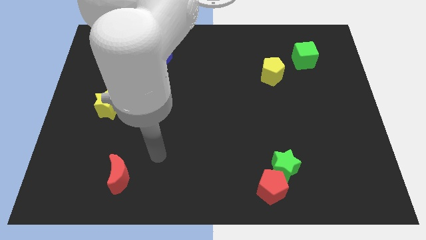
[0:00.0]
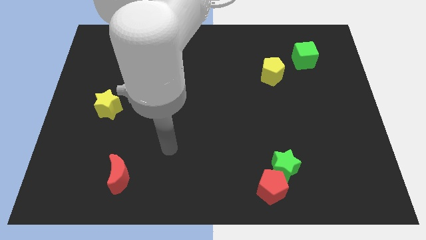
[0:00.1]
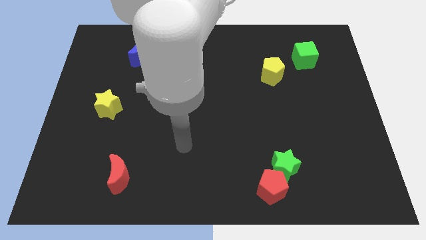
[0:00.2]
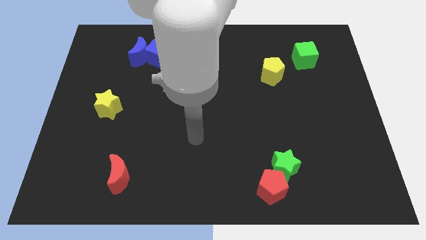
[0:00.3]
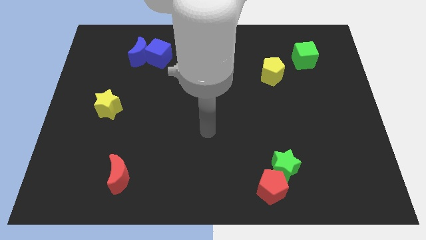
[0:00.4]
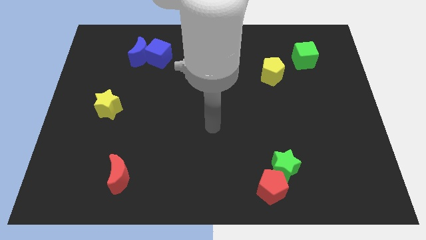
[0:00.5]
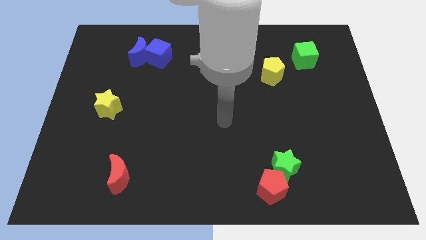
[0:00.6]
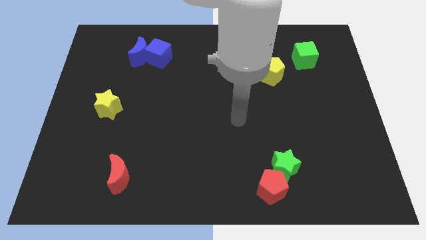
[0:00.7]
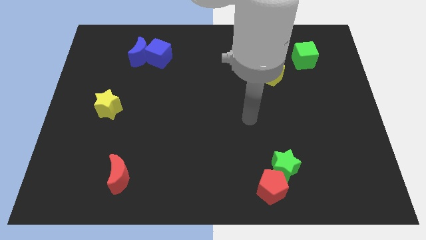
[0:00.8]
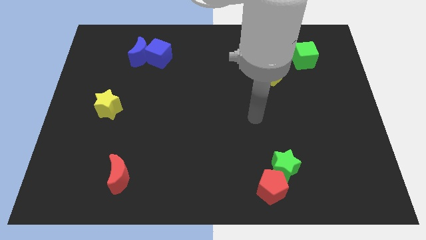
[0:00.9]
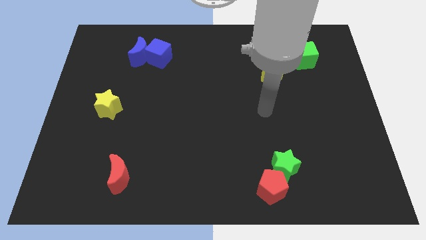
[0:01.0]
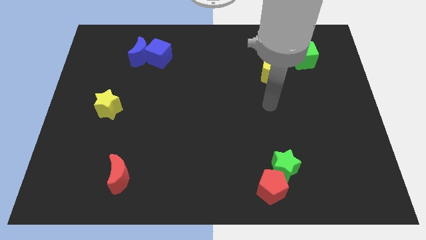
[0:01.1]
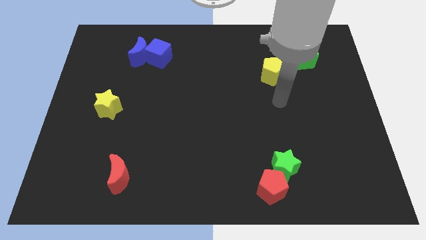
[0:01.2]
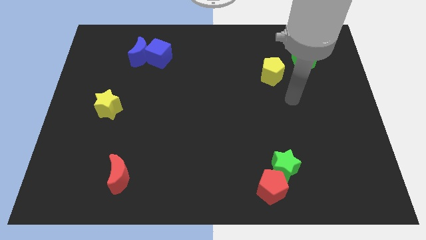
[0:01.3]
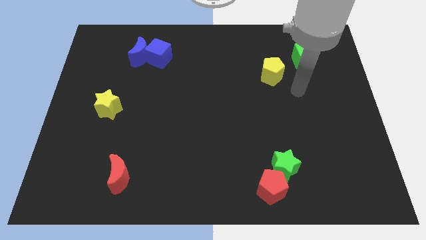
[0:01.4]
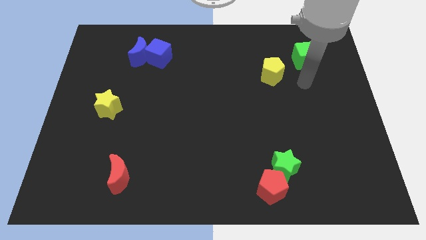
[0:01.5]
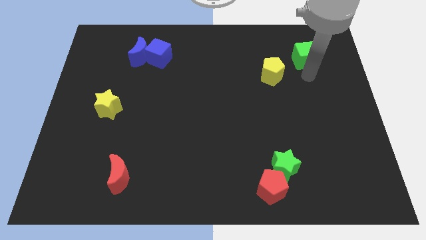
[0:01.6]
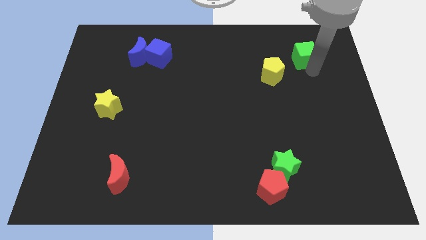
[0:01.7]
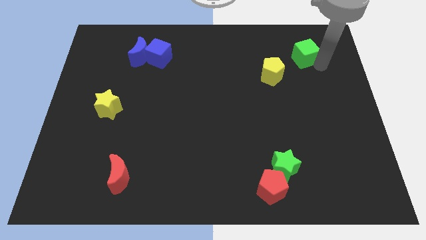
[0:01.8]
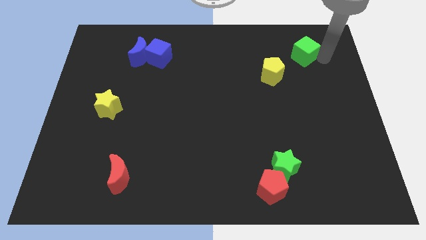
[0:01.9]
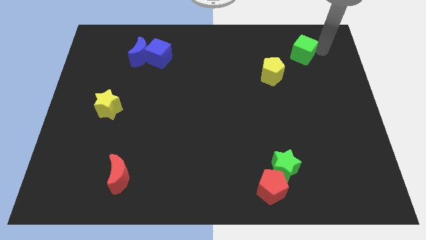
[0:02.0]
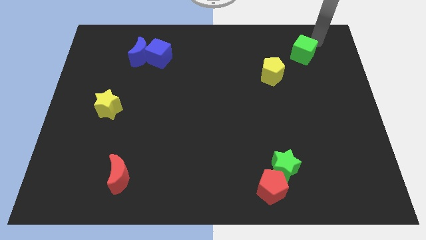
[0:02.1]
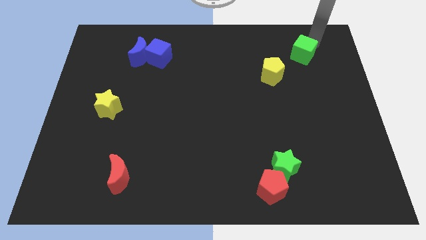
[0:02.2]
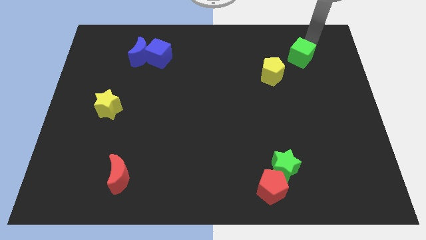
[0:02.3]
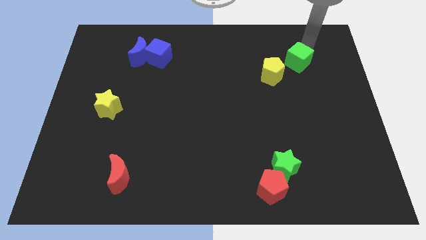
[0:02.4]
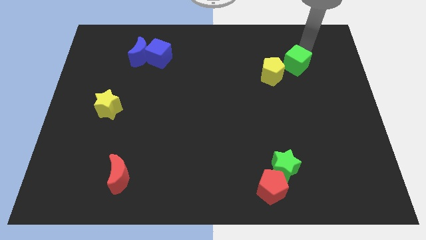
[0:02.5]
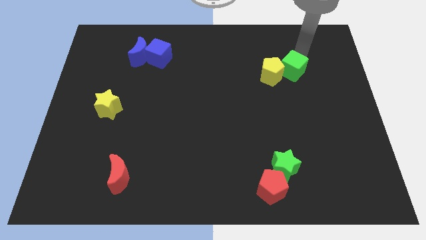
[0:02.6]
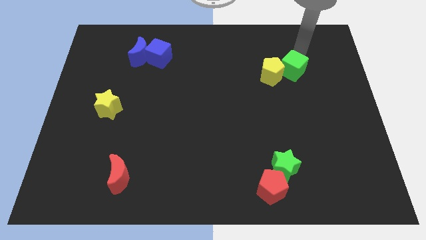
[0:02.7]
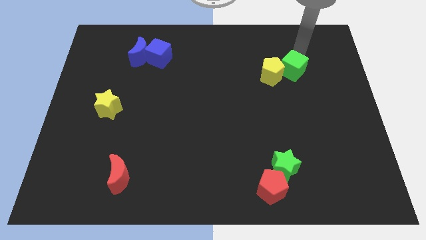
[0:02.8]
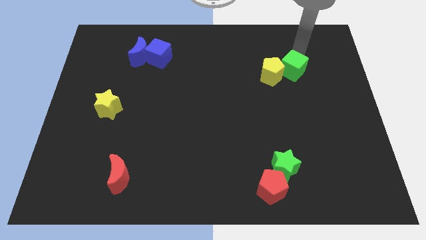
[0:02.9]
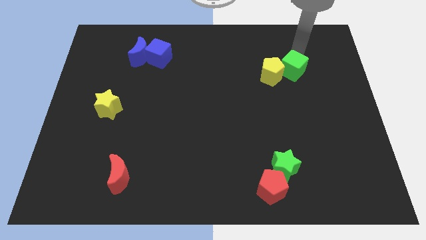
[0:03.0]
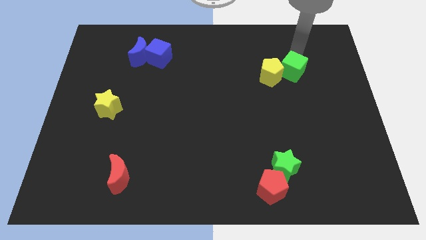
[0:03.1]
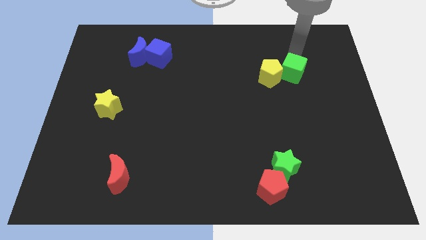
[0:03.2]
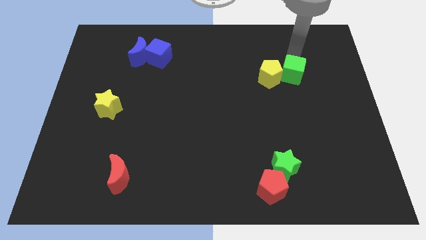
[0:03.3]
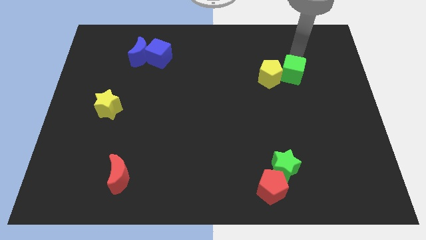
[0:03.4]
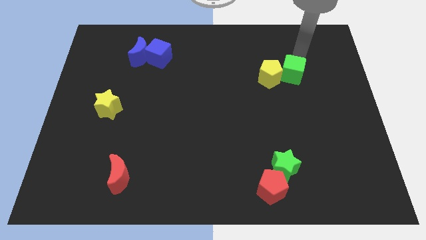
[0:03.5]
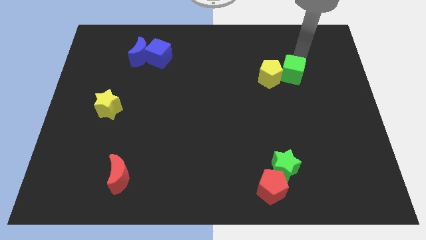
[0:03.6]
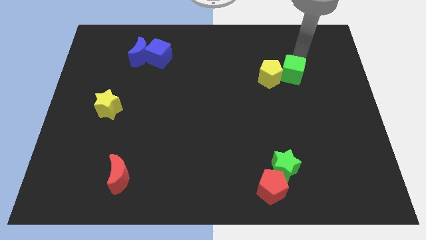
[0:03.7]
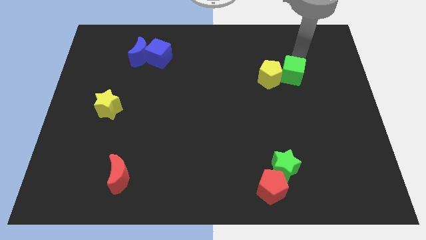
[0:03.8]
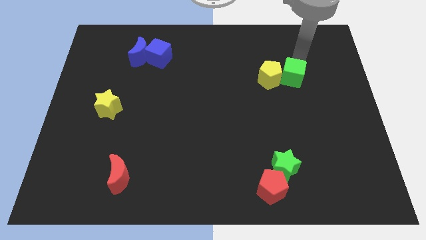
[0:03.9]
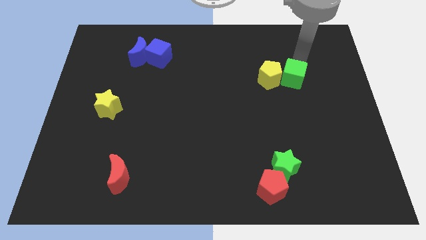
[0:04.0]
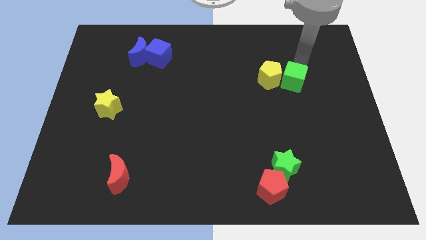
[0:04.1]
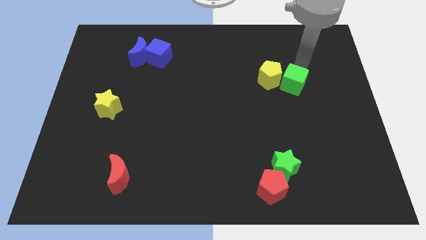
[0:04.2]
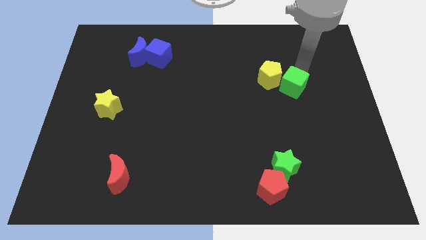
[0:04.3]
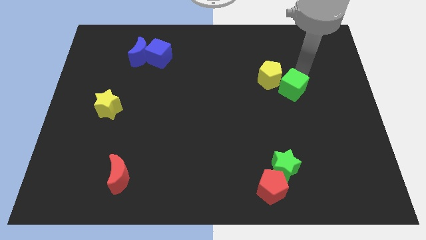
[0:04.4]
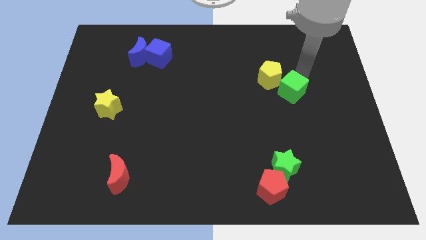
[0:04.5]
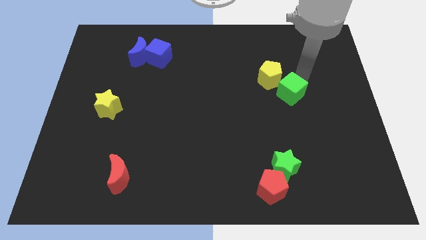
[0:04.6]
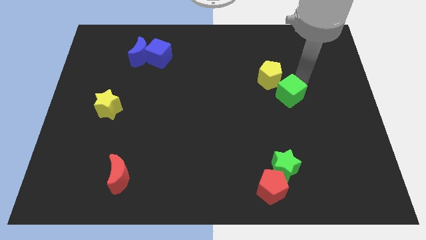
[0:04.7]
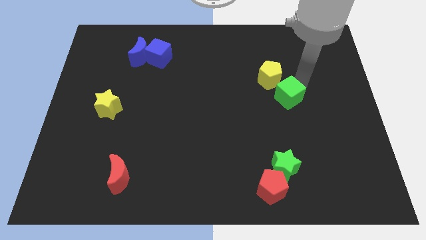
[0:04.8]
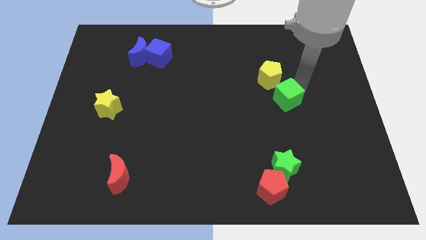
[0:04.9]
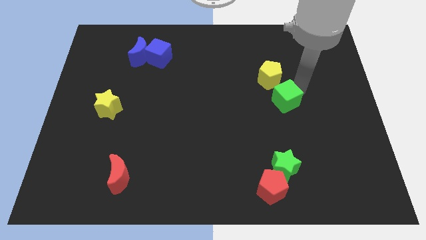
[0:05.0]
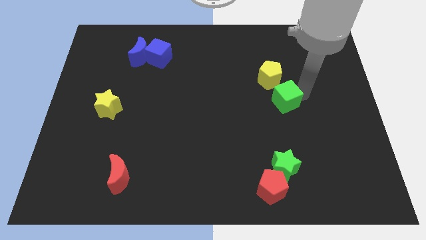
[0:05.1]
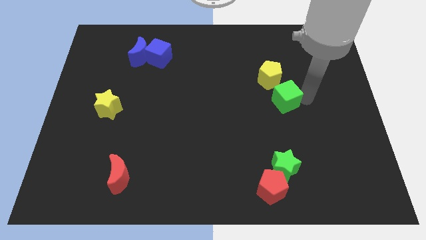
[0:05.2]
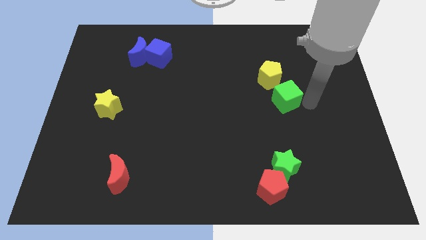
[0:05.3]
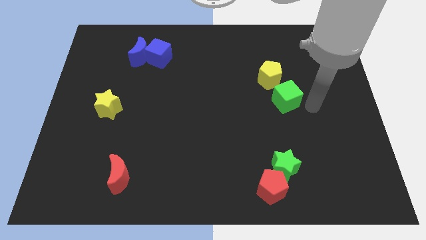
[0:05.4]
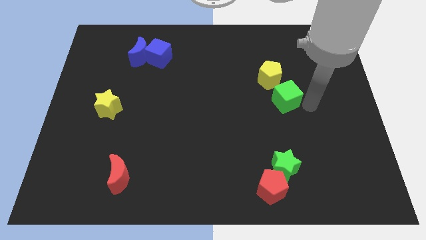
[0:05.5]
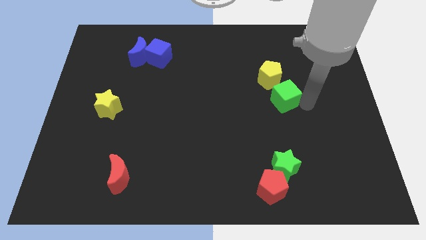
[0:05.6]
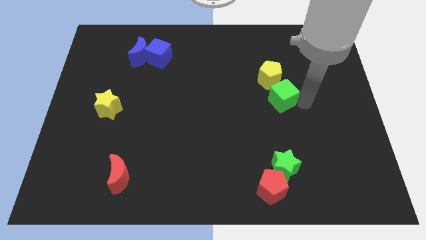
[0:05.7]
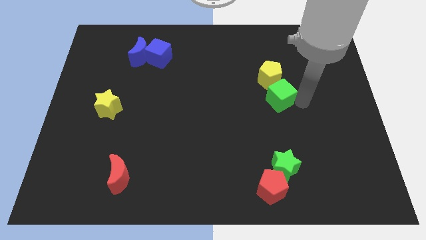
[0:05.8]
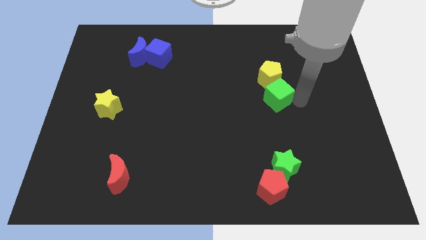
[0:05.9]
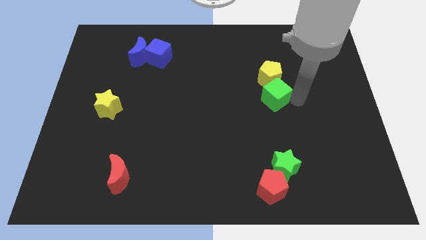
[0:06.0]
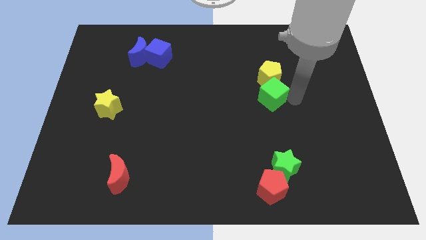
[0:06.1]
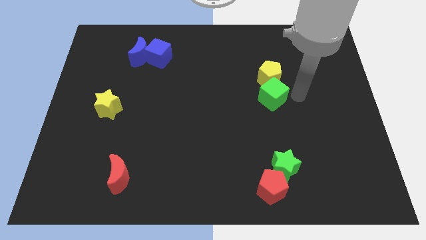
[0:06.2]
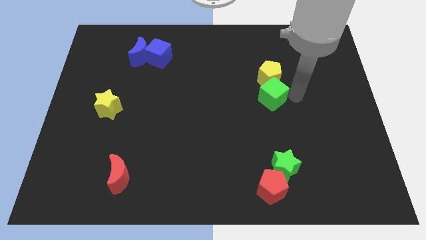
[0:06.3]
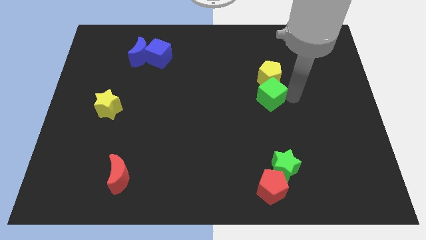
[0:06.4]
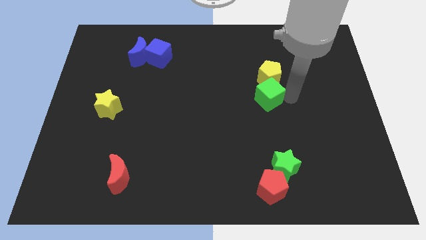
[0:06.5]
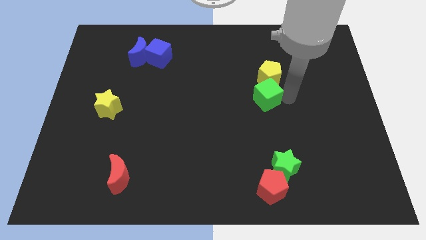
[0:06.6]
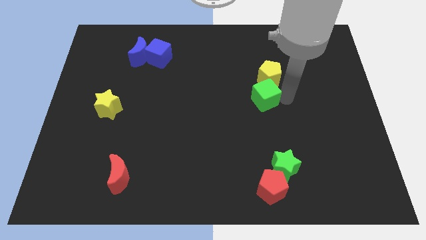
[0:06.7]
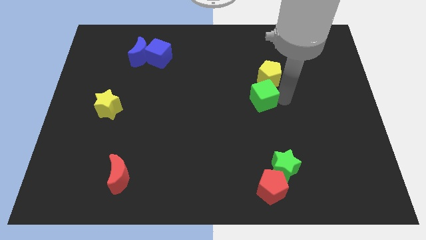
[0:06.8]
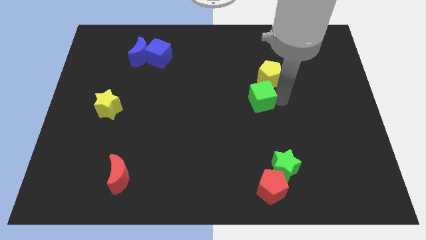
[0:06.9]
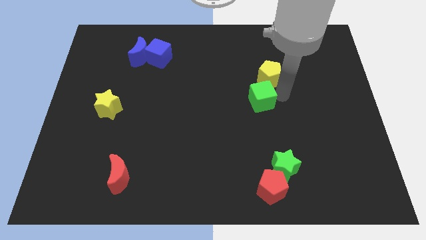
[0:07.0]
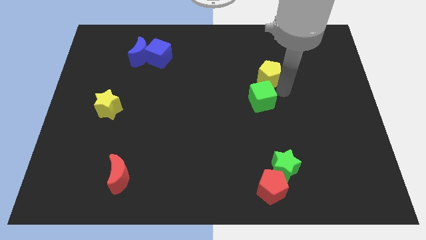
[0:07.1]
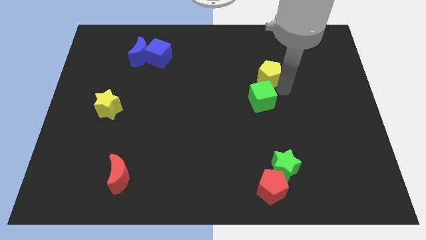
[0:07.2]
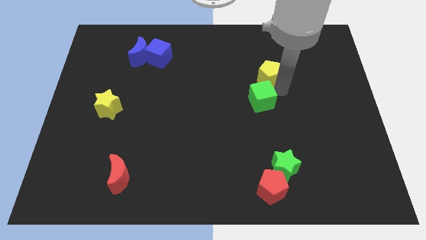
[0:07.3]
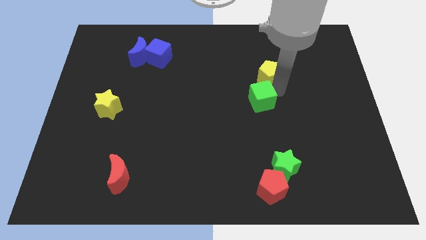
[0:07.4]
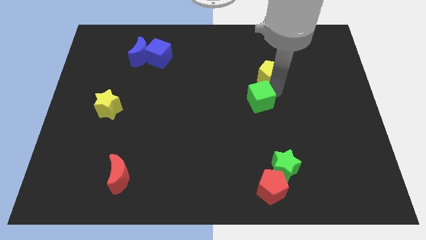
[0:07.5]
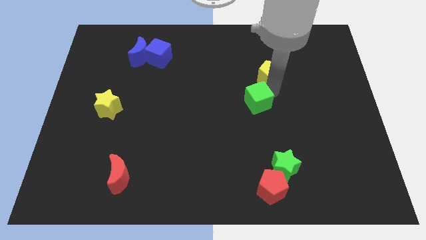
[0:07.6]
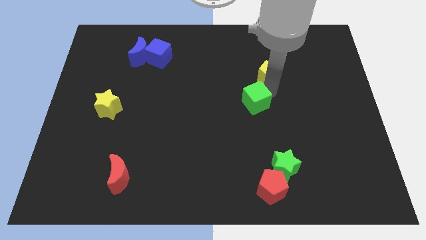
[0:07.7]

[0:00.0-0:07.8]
push the green cube down and to the left diagonally

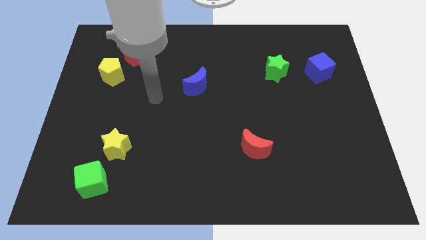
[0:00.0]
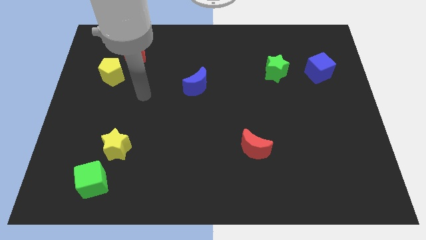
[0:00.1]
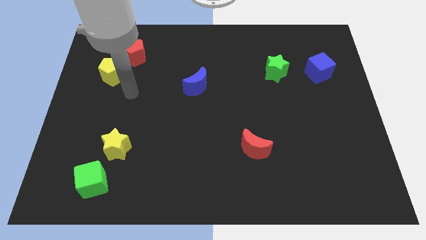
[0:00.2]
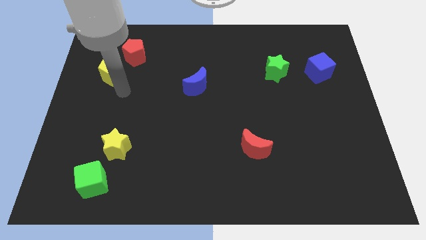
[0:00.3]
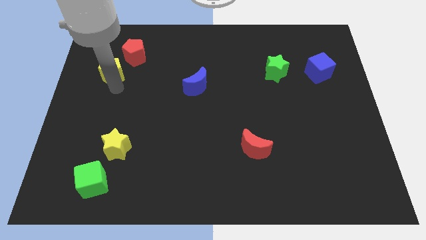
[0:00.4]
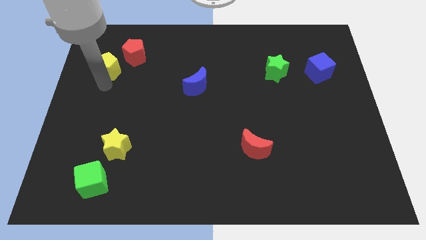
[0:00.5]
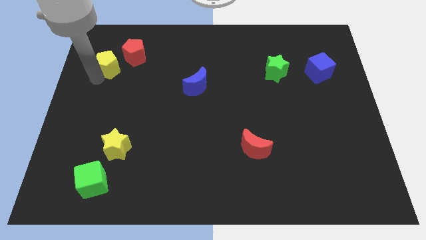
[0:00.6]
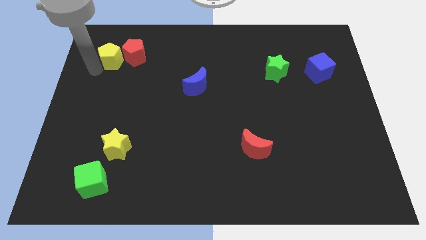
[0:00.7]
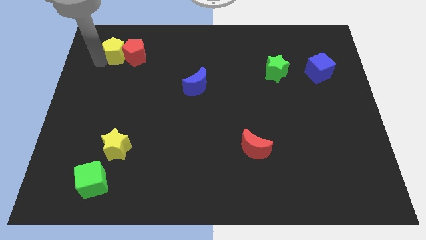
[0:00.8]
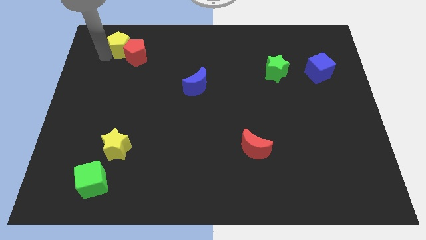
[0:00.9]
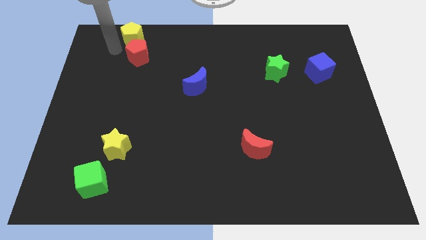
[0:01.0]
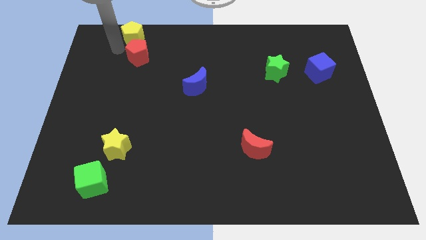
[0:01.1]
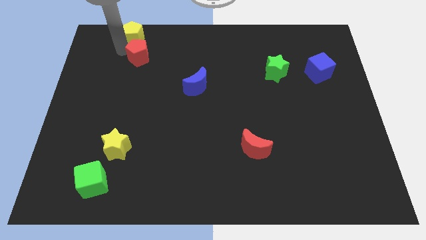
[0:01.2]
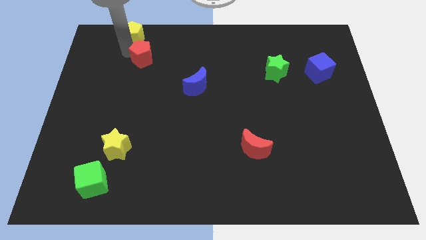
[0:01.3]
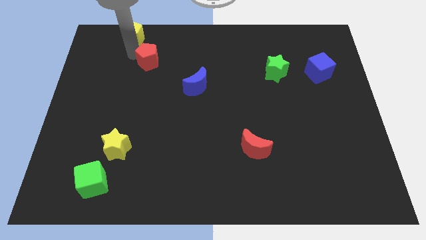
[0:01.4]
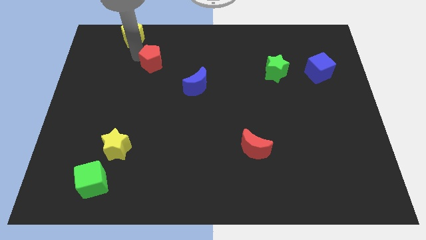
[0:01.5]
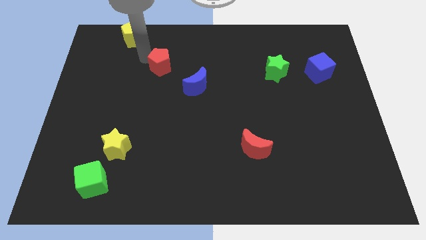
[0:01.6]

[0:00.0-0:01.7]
push the red pentagon a little downwards and right diagonally
